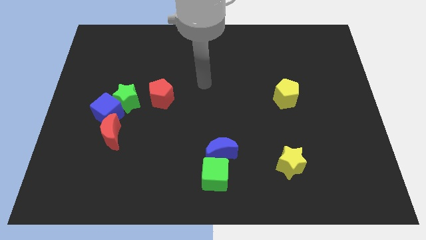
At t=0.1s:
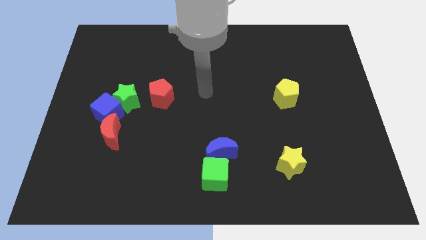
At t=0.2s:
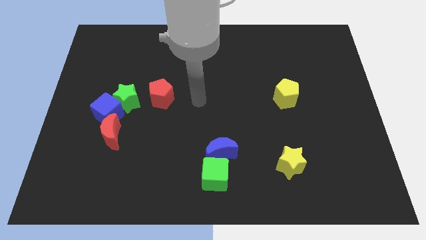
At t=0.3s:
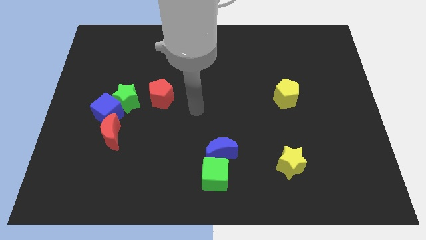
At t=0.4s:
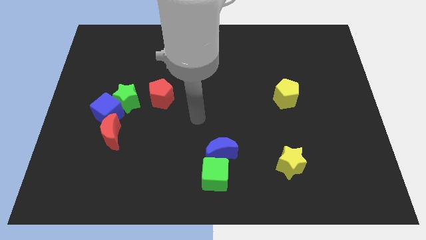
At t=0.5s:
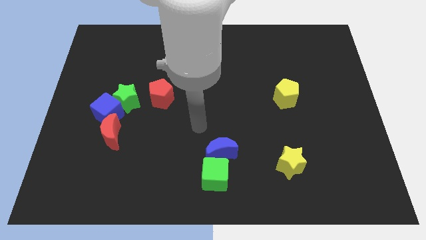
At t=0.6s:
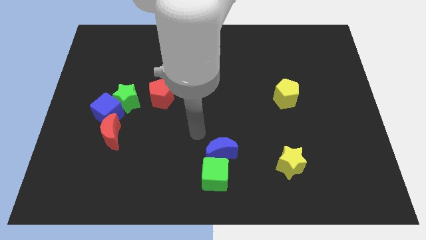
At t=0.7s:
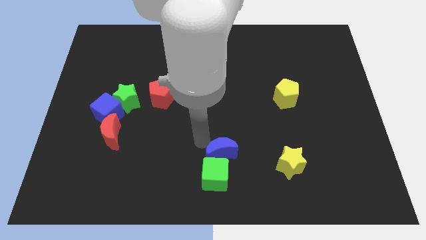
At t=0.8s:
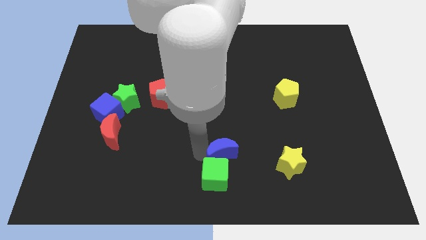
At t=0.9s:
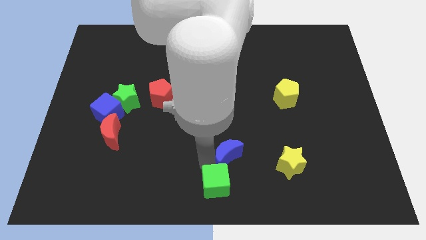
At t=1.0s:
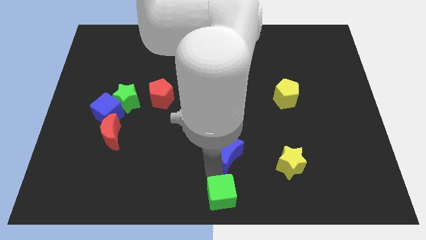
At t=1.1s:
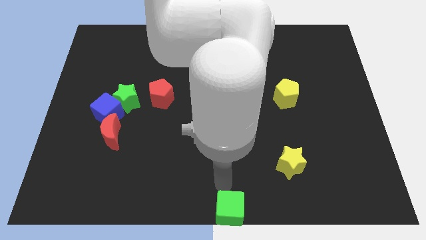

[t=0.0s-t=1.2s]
separate the blue moon from the green cube

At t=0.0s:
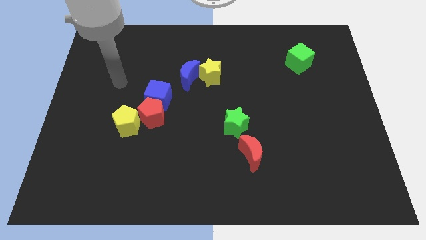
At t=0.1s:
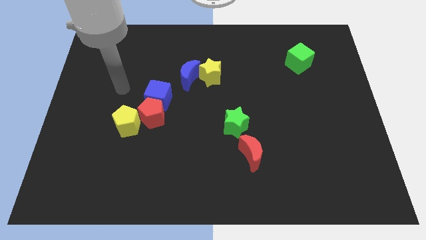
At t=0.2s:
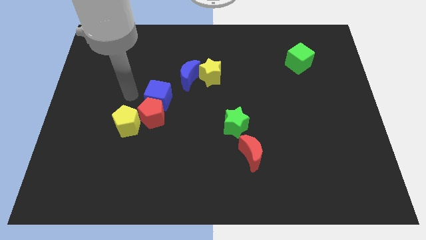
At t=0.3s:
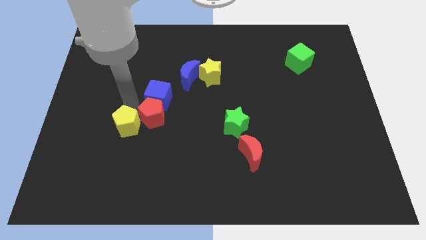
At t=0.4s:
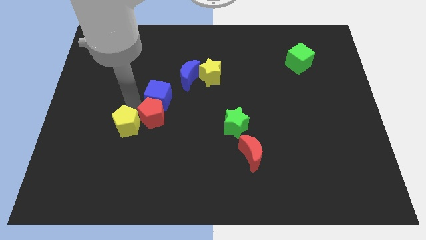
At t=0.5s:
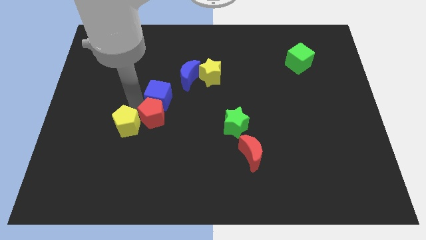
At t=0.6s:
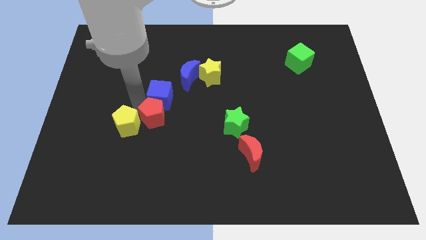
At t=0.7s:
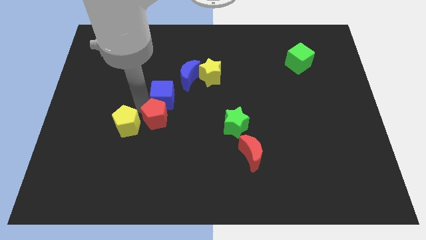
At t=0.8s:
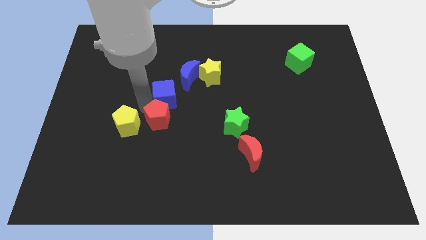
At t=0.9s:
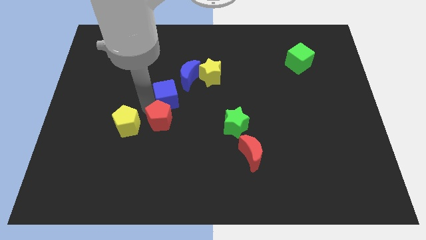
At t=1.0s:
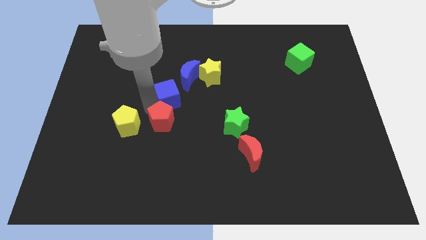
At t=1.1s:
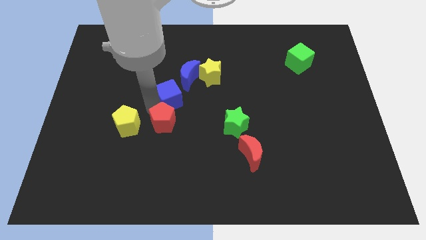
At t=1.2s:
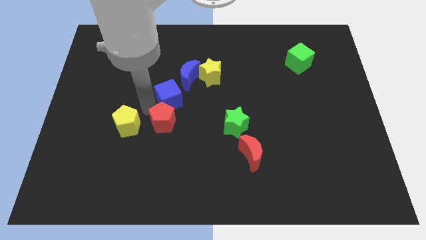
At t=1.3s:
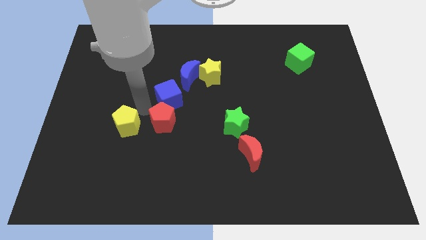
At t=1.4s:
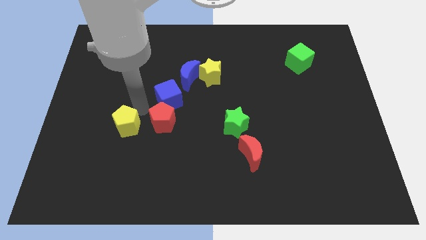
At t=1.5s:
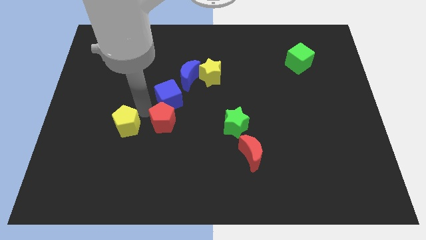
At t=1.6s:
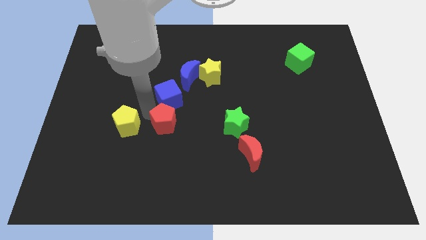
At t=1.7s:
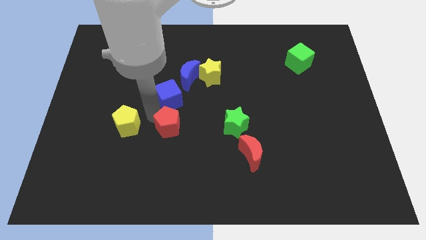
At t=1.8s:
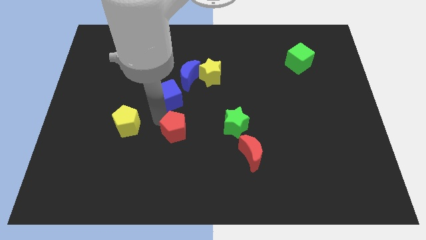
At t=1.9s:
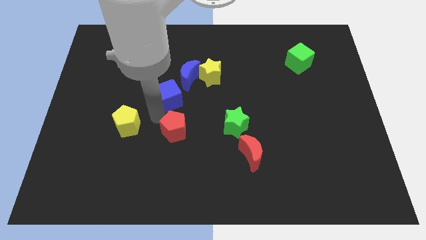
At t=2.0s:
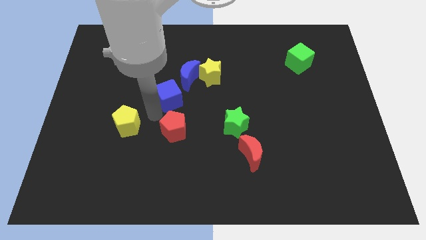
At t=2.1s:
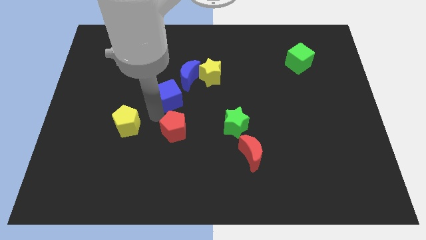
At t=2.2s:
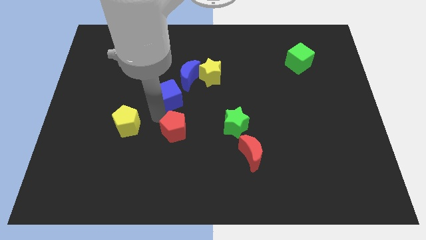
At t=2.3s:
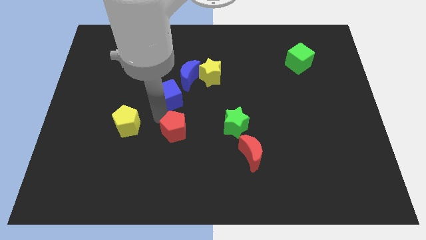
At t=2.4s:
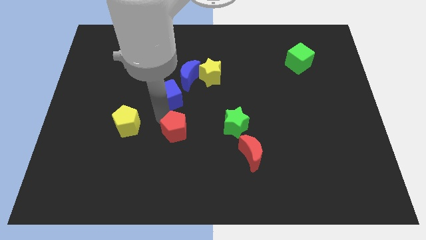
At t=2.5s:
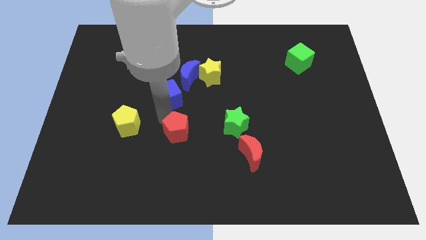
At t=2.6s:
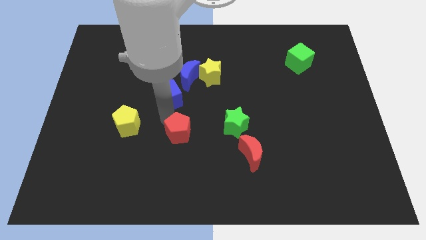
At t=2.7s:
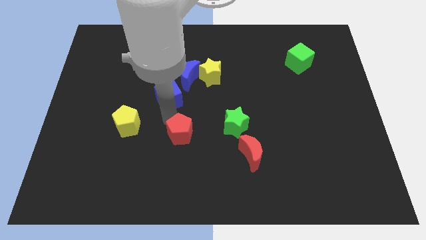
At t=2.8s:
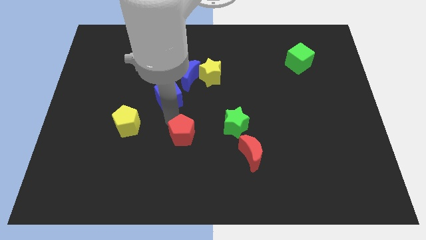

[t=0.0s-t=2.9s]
separate the red pentagon from the blue cube and yellow pentagon

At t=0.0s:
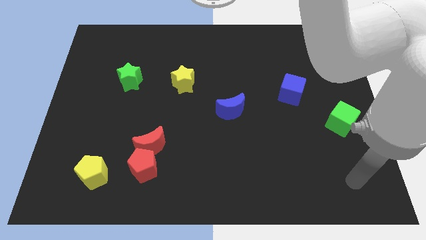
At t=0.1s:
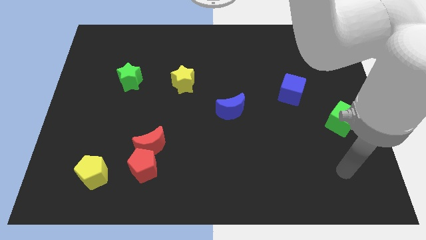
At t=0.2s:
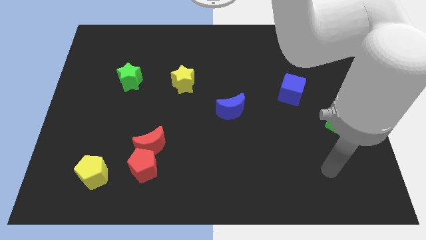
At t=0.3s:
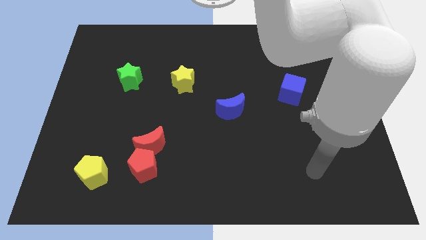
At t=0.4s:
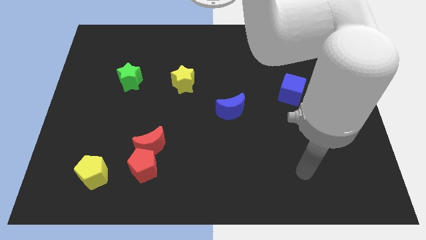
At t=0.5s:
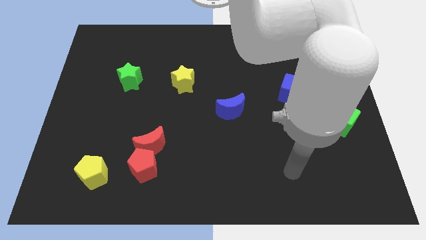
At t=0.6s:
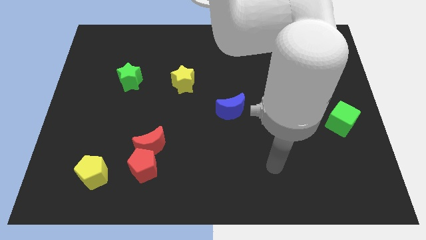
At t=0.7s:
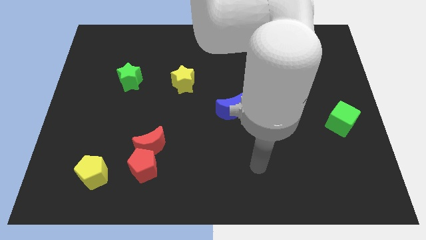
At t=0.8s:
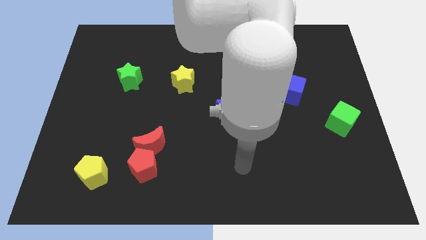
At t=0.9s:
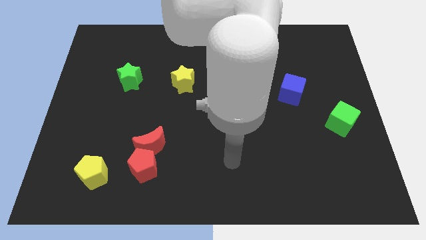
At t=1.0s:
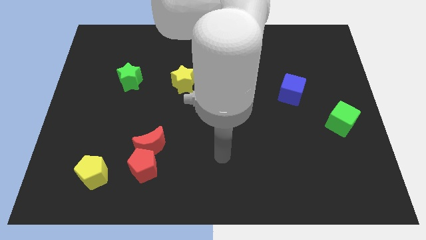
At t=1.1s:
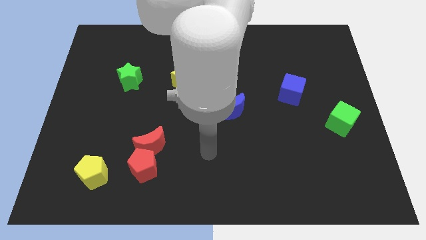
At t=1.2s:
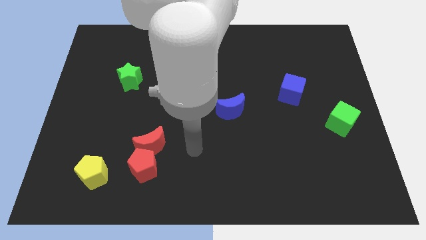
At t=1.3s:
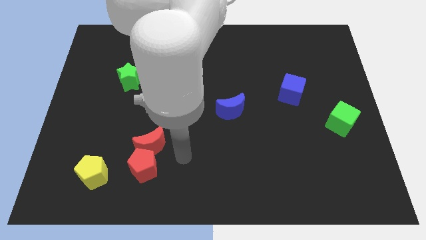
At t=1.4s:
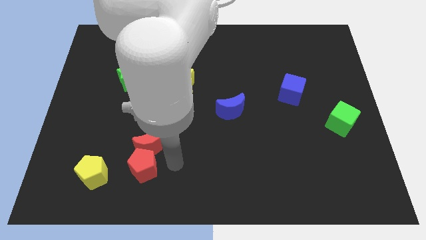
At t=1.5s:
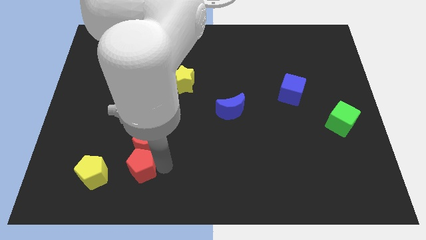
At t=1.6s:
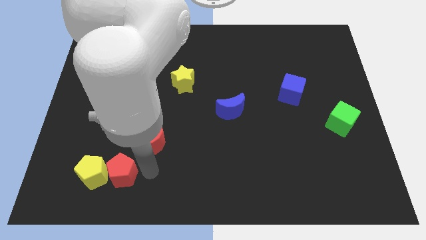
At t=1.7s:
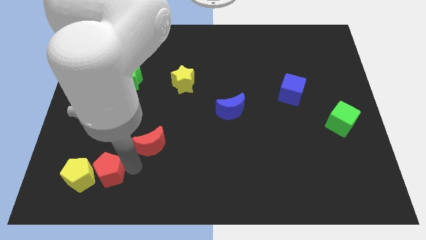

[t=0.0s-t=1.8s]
move the red moon away from the red pentagon

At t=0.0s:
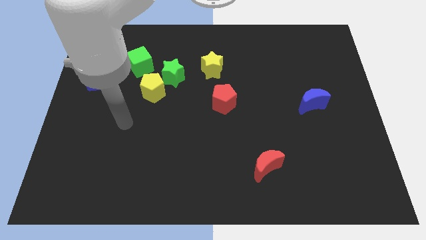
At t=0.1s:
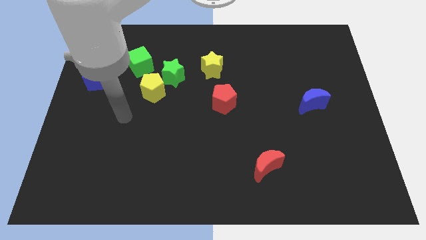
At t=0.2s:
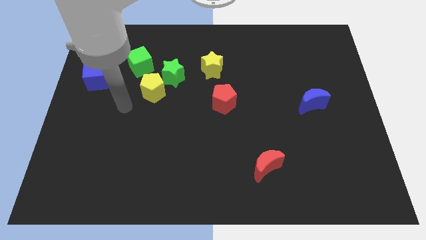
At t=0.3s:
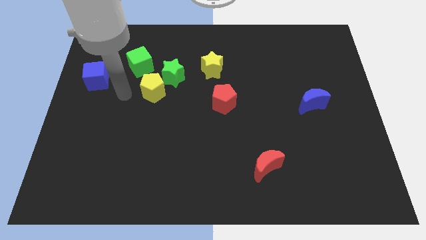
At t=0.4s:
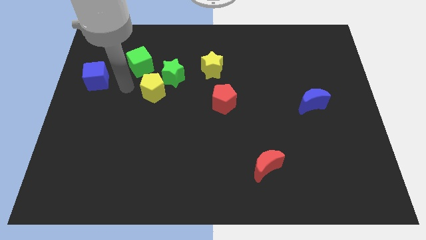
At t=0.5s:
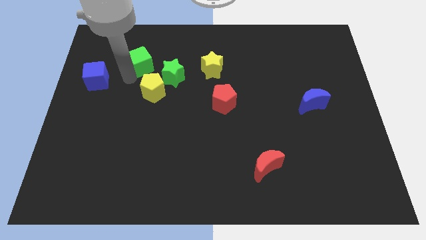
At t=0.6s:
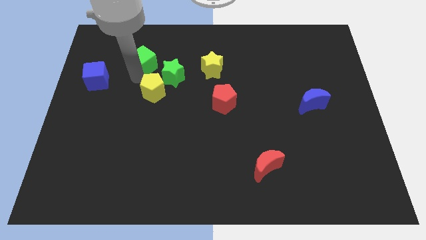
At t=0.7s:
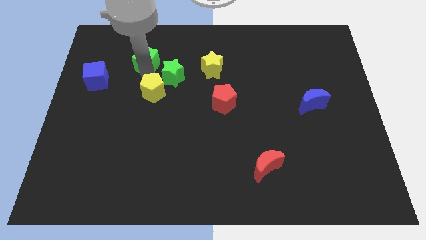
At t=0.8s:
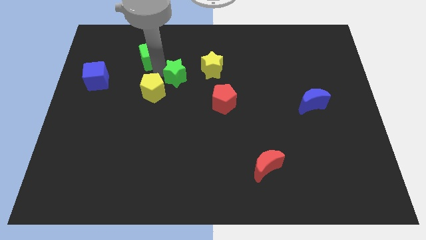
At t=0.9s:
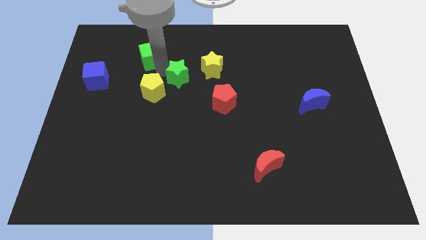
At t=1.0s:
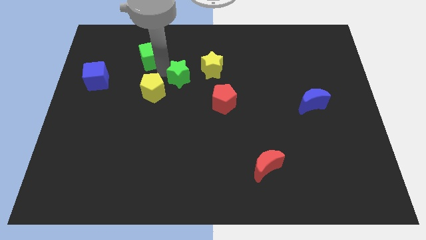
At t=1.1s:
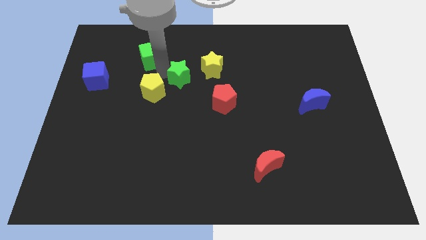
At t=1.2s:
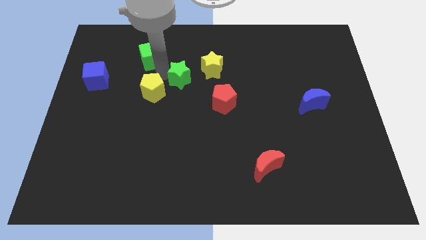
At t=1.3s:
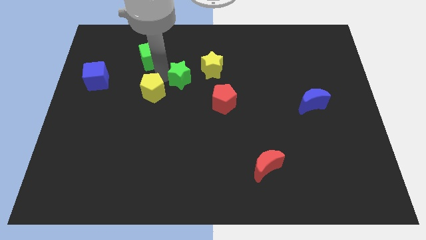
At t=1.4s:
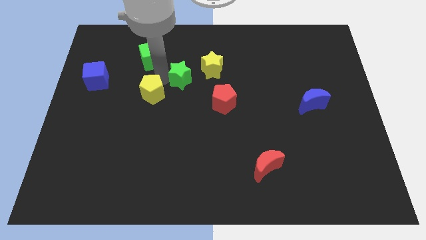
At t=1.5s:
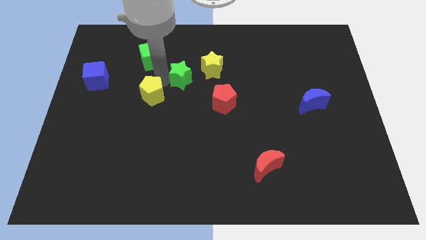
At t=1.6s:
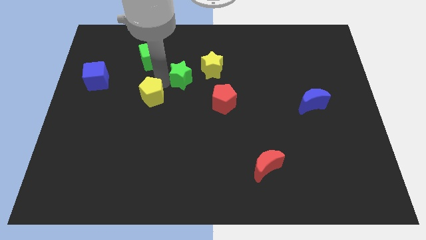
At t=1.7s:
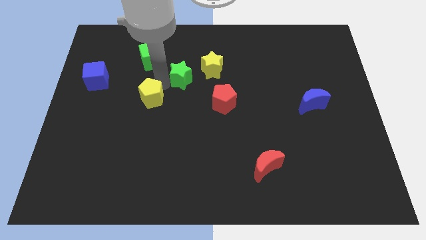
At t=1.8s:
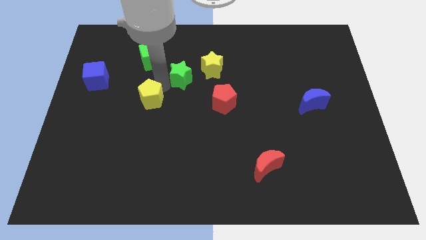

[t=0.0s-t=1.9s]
pull the yellow pentagon apart from the green star and green cube

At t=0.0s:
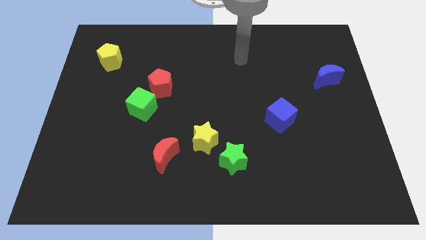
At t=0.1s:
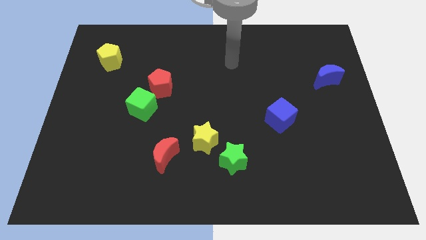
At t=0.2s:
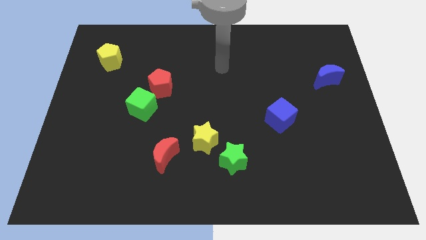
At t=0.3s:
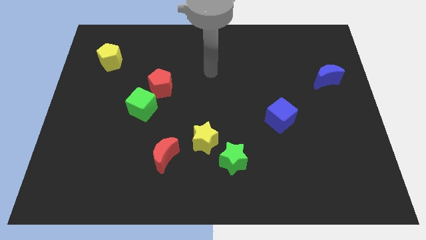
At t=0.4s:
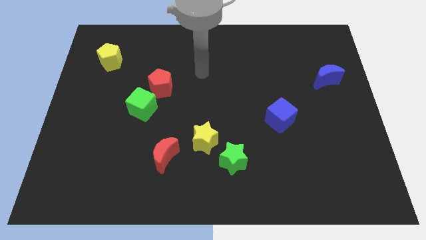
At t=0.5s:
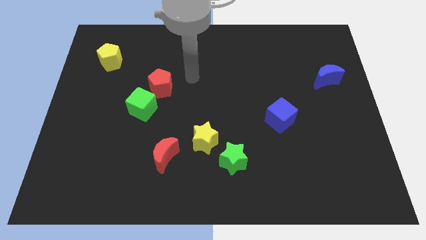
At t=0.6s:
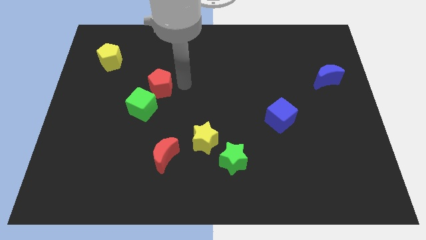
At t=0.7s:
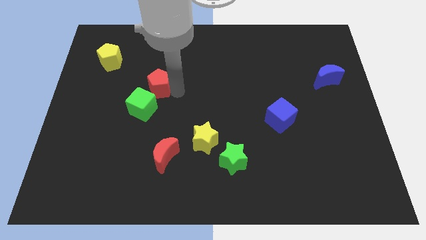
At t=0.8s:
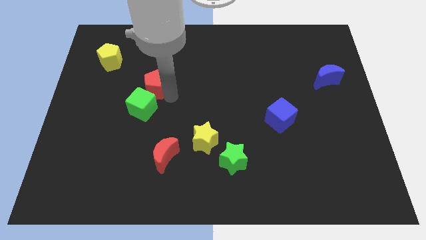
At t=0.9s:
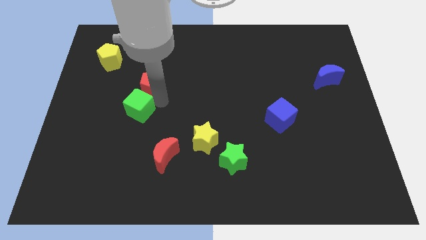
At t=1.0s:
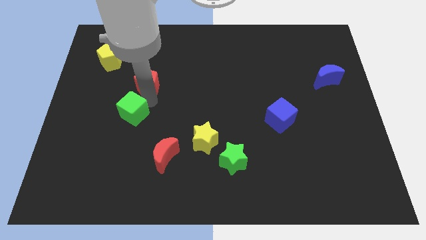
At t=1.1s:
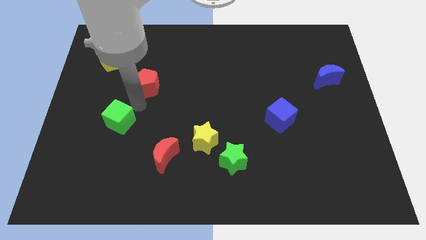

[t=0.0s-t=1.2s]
pull the red pentagon apart from the green cube

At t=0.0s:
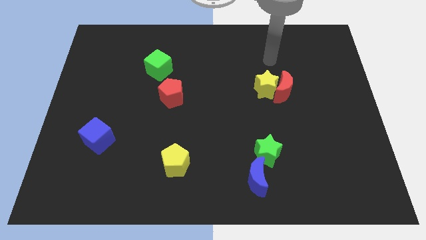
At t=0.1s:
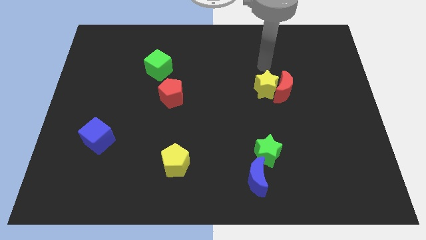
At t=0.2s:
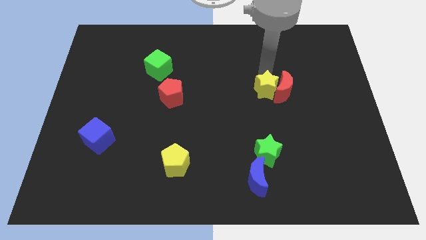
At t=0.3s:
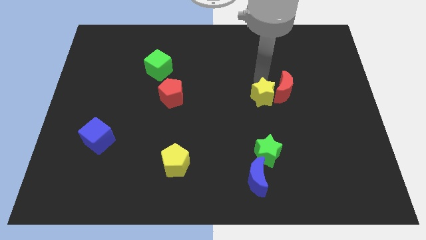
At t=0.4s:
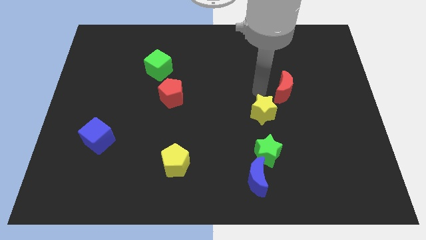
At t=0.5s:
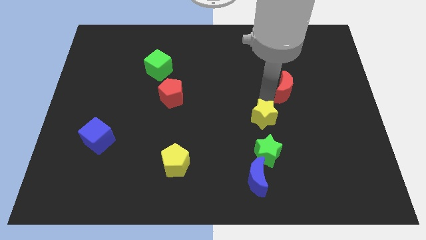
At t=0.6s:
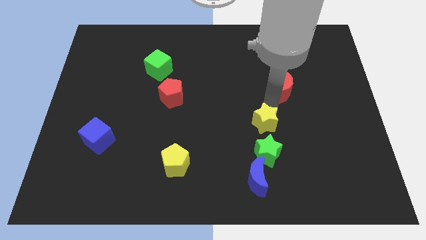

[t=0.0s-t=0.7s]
separate the red moon from the yellow star
